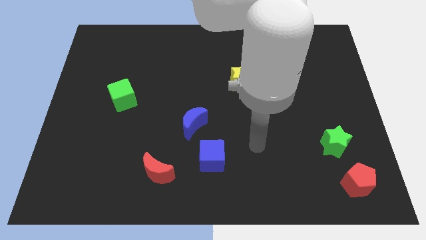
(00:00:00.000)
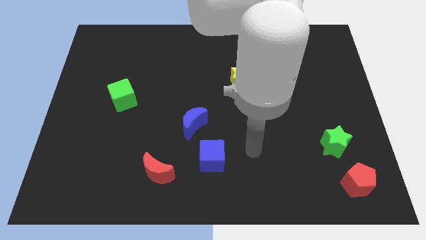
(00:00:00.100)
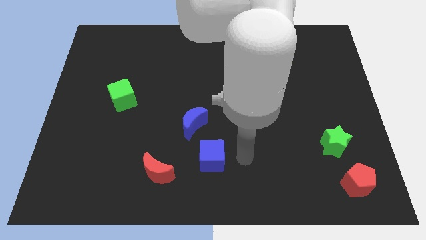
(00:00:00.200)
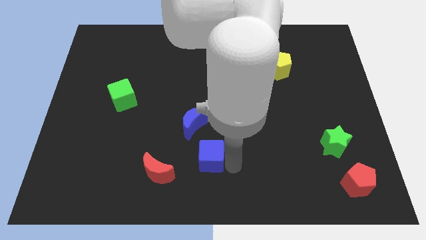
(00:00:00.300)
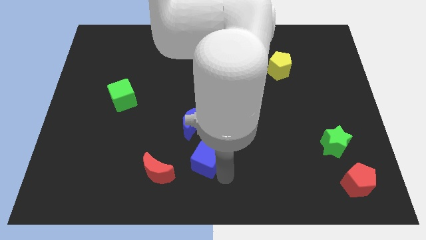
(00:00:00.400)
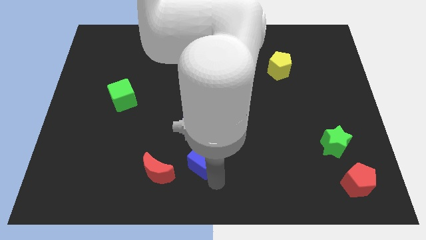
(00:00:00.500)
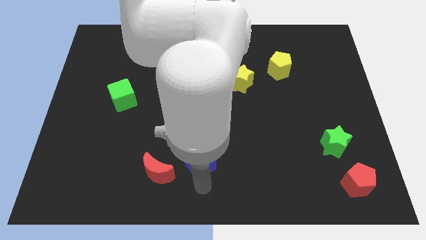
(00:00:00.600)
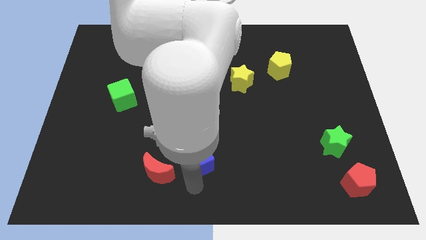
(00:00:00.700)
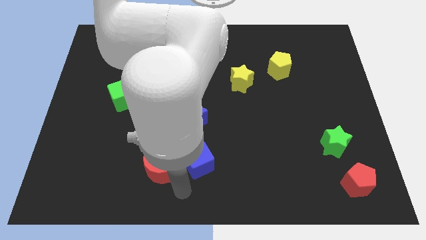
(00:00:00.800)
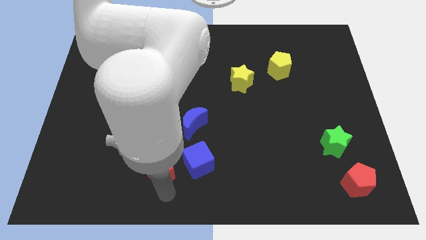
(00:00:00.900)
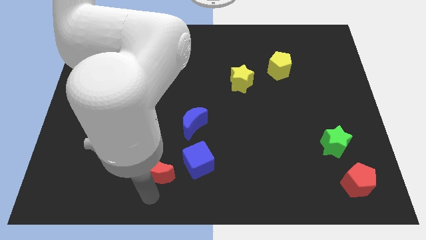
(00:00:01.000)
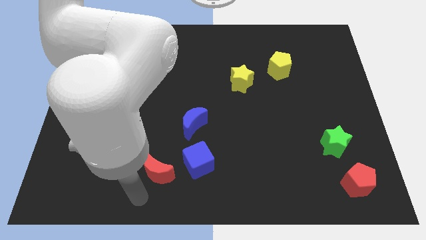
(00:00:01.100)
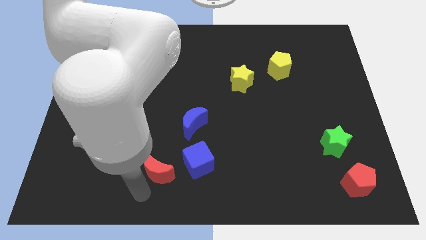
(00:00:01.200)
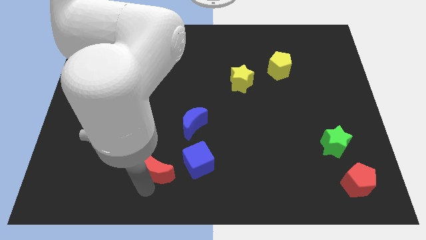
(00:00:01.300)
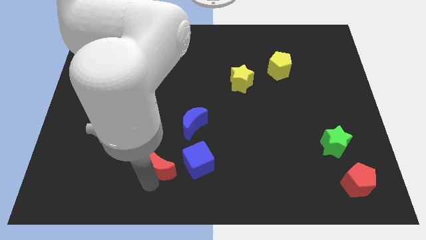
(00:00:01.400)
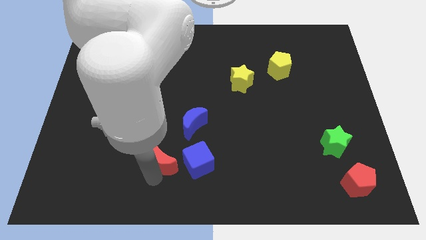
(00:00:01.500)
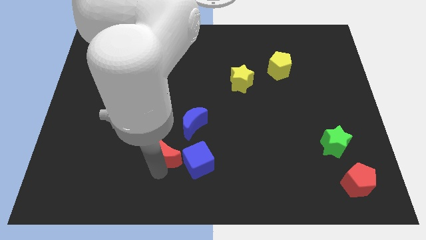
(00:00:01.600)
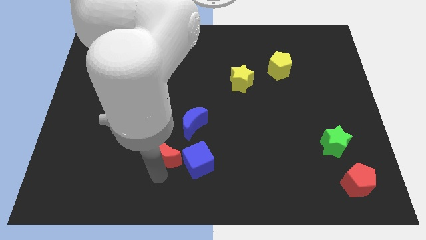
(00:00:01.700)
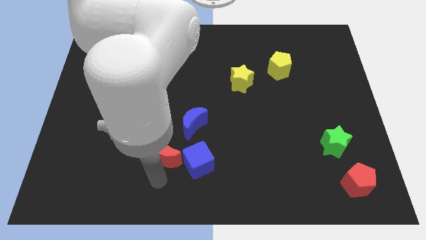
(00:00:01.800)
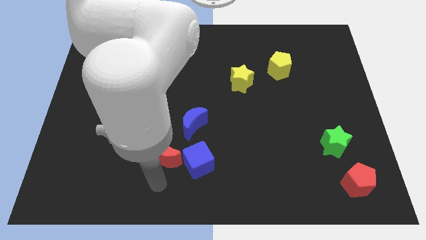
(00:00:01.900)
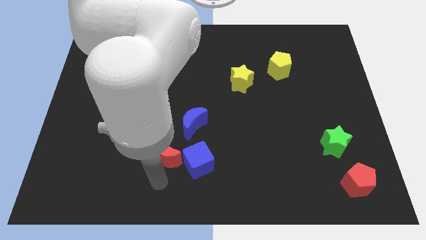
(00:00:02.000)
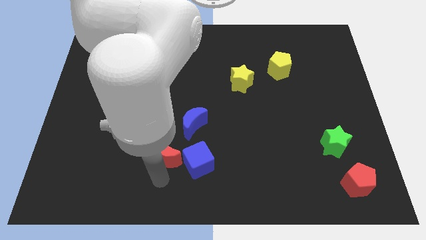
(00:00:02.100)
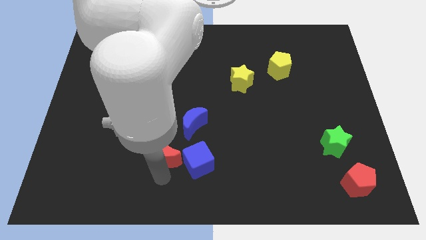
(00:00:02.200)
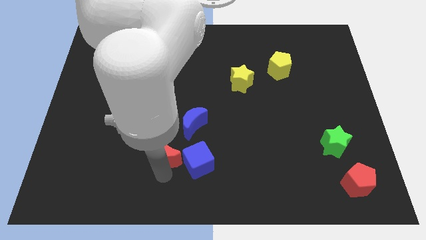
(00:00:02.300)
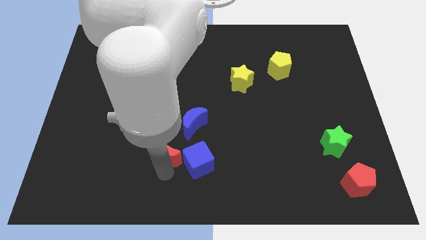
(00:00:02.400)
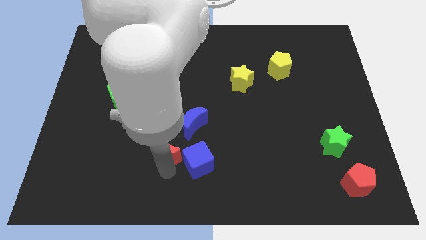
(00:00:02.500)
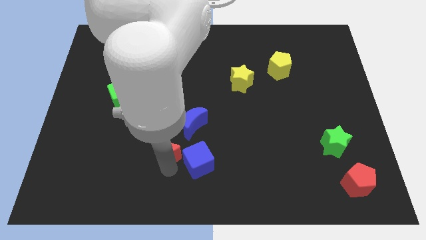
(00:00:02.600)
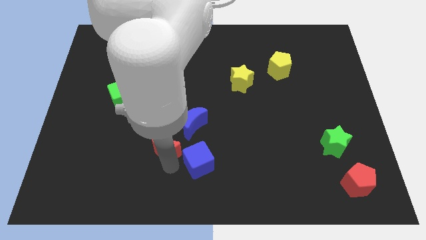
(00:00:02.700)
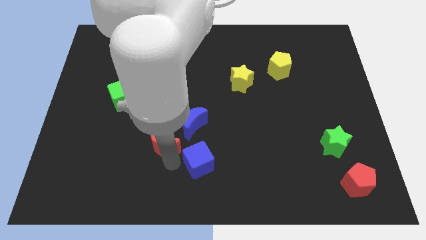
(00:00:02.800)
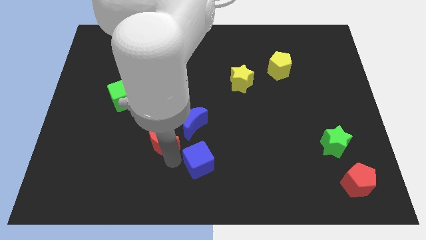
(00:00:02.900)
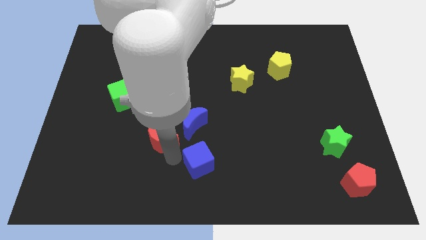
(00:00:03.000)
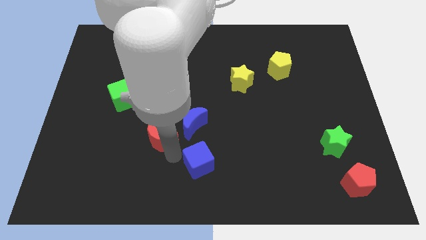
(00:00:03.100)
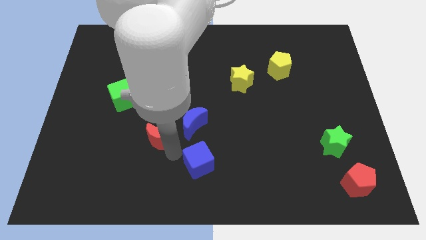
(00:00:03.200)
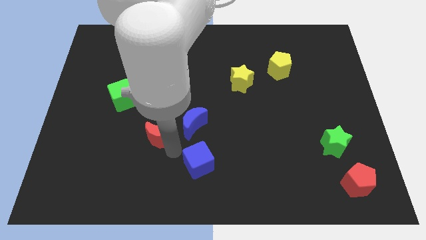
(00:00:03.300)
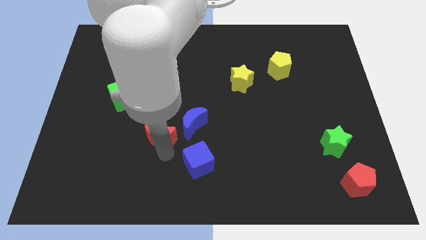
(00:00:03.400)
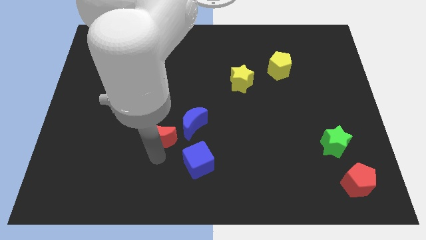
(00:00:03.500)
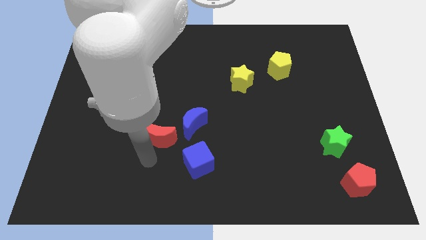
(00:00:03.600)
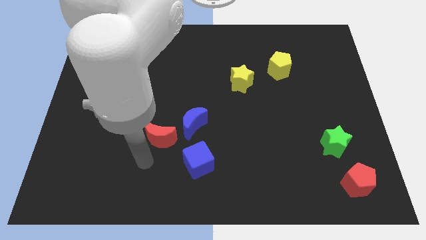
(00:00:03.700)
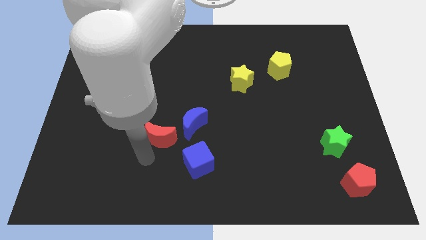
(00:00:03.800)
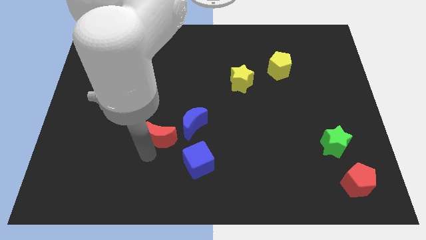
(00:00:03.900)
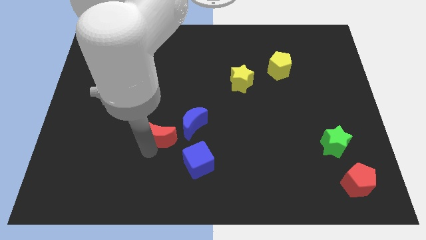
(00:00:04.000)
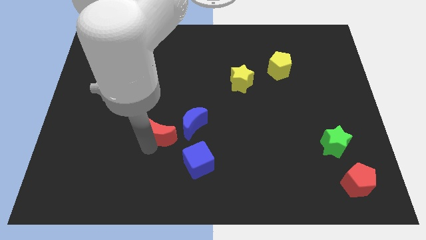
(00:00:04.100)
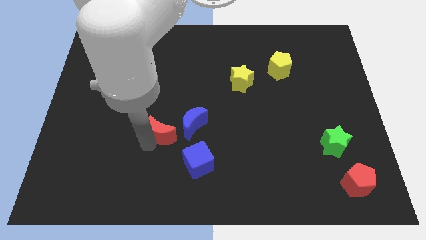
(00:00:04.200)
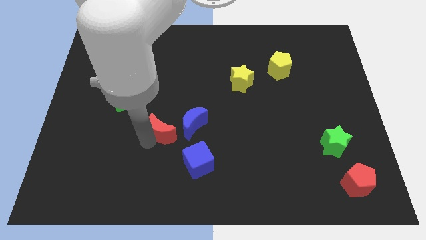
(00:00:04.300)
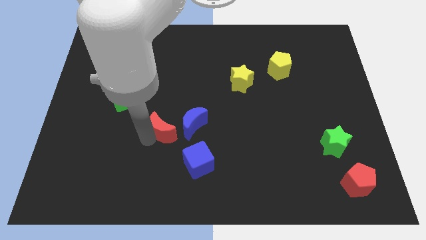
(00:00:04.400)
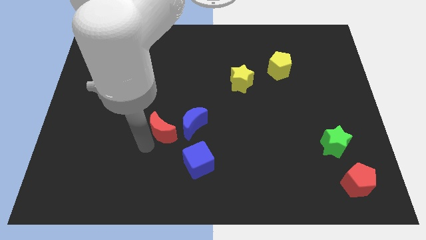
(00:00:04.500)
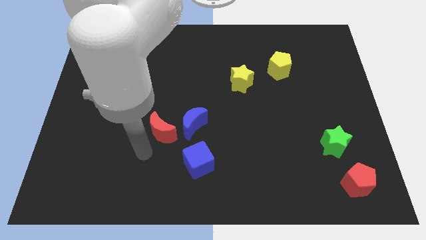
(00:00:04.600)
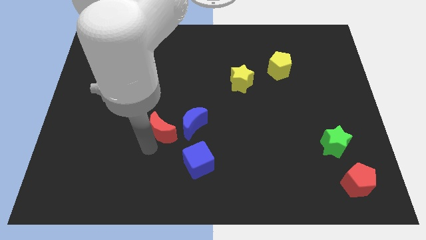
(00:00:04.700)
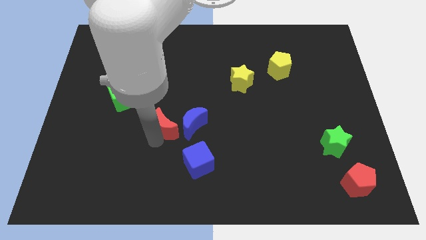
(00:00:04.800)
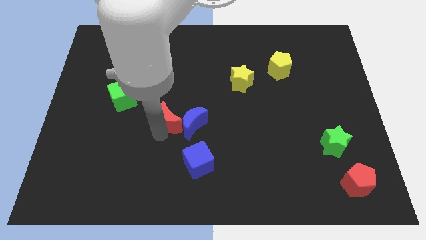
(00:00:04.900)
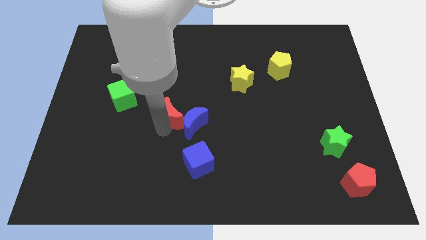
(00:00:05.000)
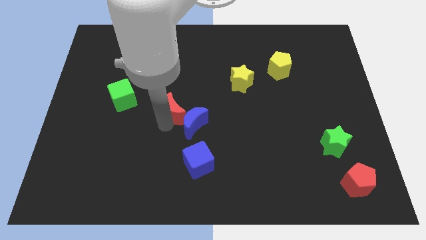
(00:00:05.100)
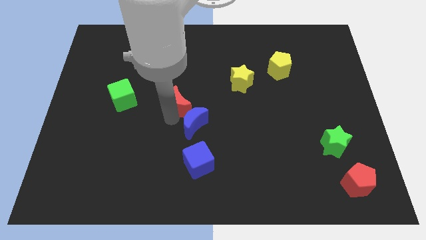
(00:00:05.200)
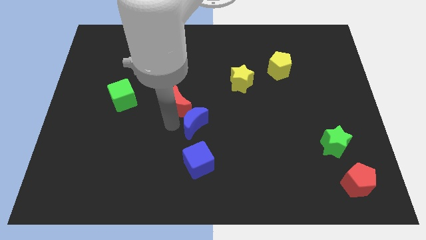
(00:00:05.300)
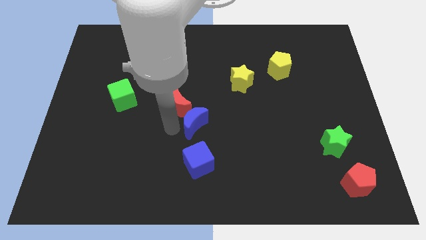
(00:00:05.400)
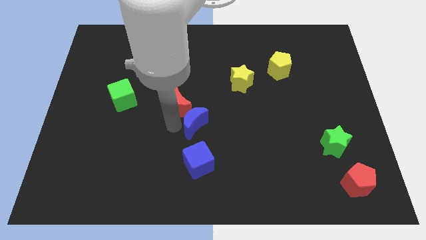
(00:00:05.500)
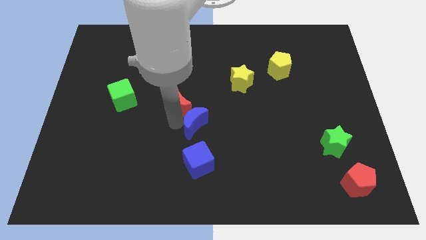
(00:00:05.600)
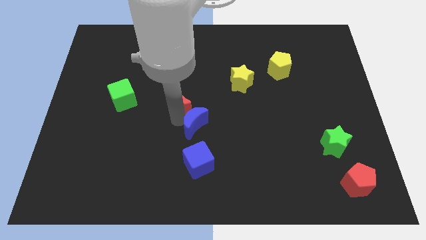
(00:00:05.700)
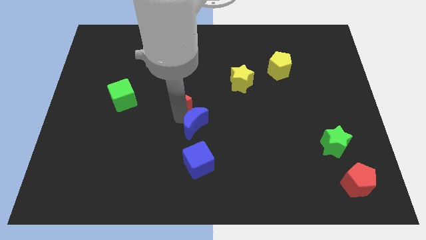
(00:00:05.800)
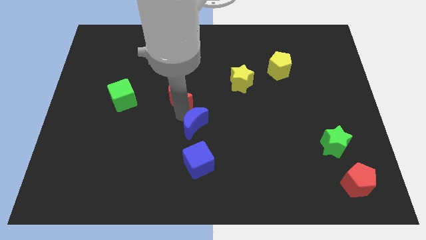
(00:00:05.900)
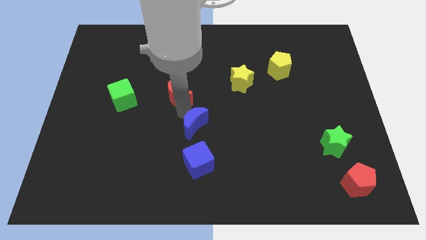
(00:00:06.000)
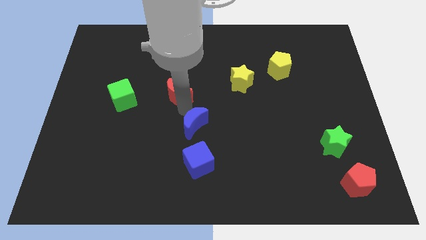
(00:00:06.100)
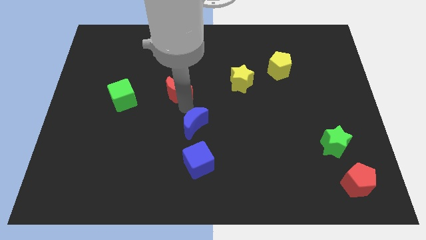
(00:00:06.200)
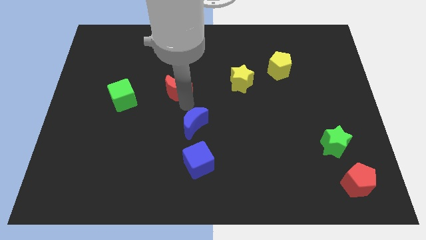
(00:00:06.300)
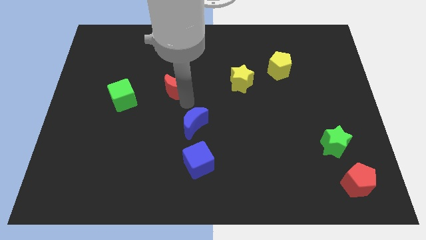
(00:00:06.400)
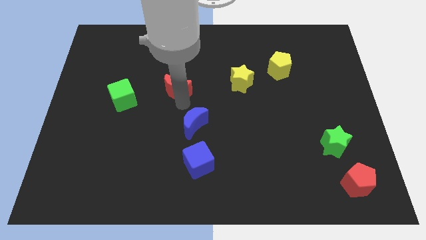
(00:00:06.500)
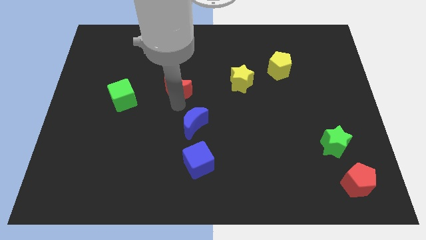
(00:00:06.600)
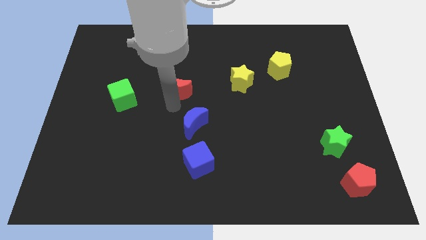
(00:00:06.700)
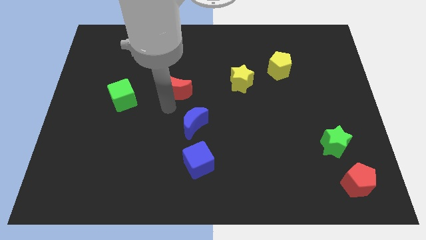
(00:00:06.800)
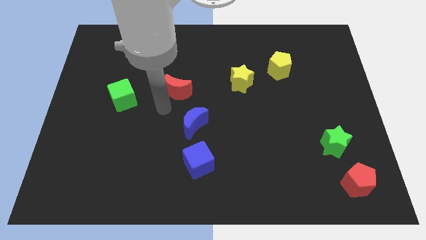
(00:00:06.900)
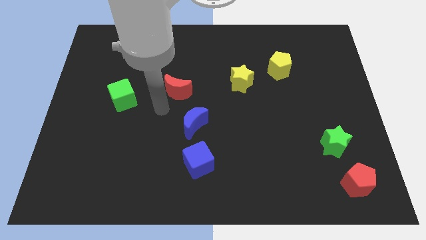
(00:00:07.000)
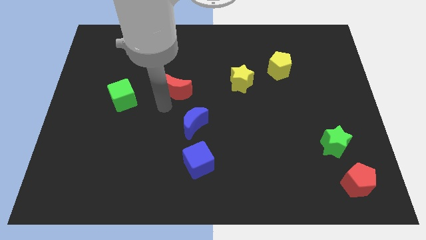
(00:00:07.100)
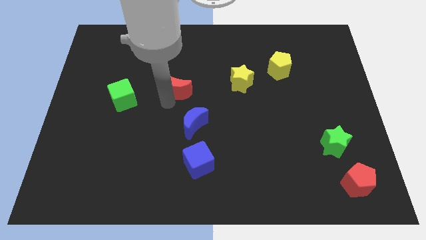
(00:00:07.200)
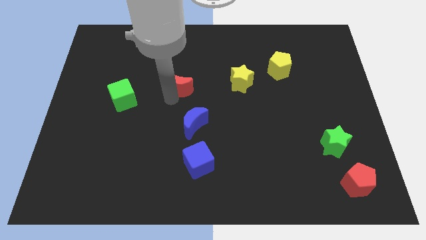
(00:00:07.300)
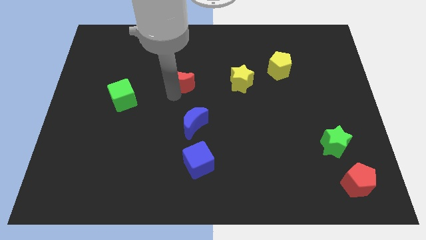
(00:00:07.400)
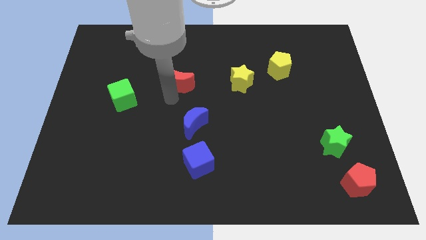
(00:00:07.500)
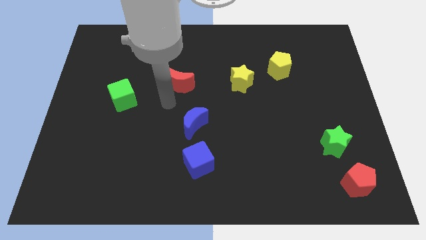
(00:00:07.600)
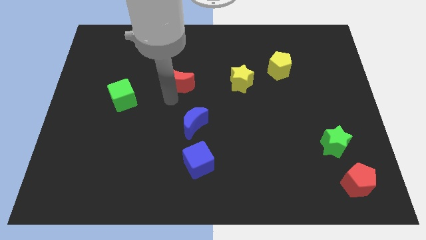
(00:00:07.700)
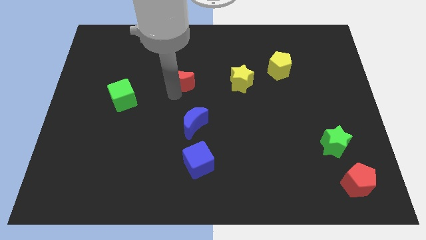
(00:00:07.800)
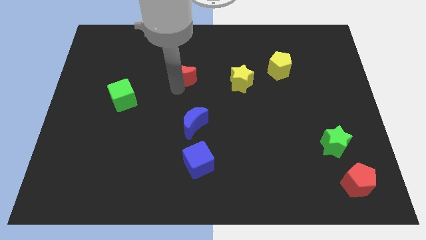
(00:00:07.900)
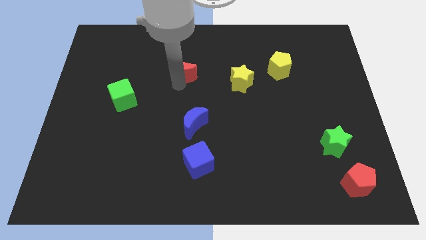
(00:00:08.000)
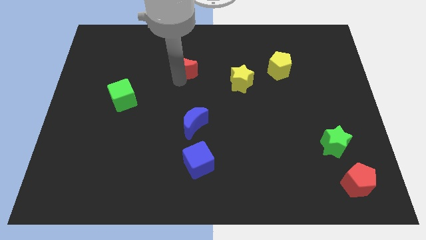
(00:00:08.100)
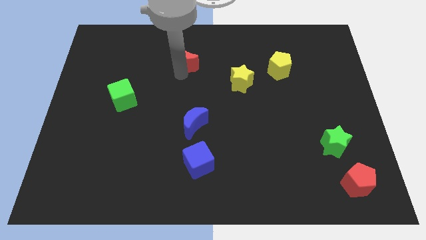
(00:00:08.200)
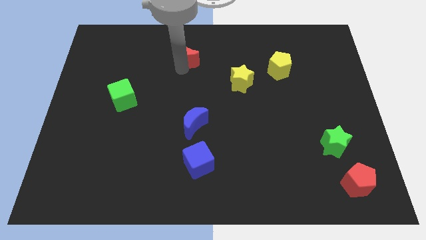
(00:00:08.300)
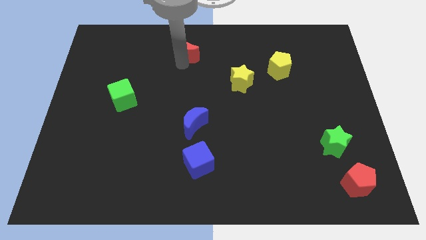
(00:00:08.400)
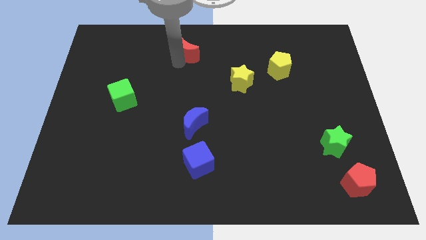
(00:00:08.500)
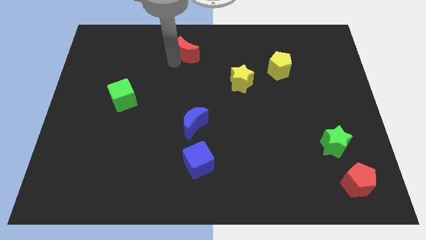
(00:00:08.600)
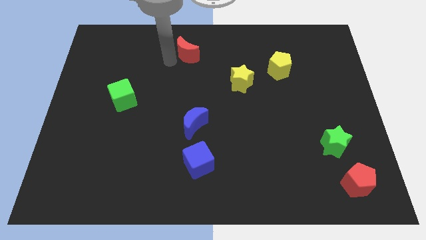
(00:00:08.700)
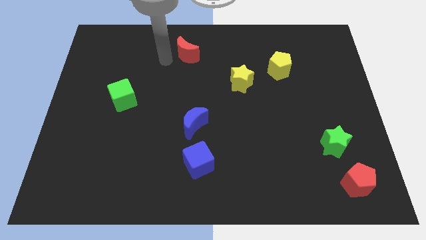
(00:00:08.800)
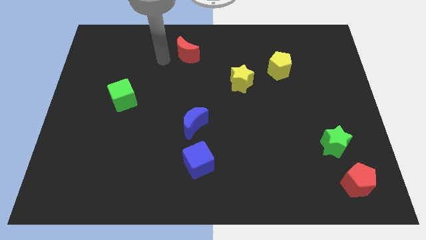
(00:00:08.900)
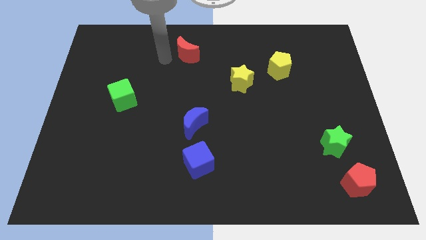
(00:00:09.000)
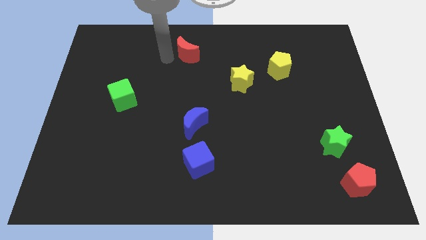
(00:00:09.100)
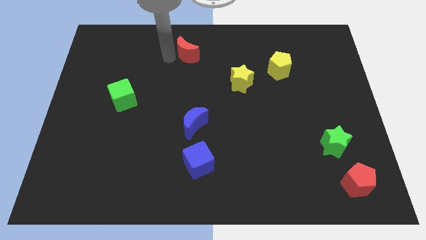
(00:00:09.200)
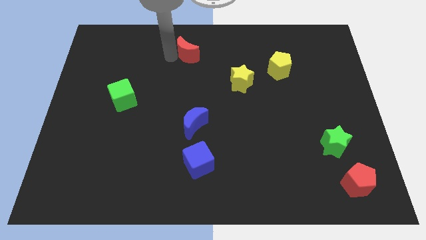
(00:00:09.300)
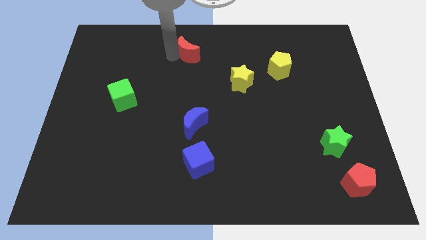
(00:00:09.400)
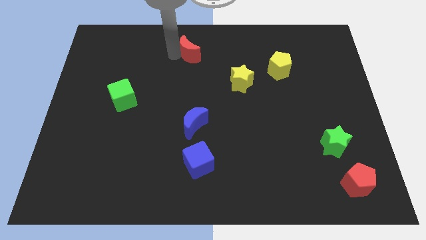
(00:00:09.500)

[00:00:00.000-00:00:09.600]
push the red moon to the top
